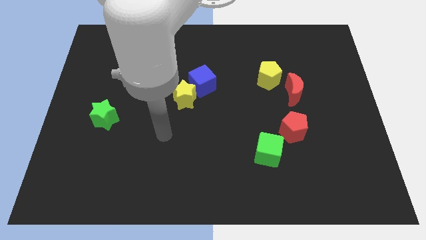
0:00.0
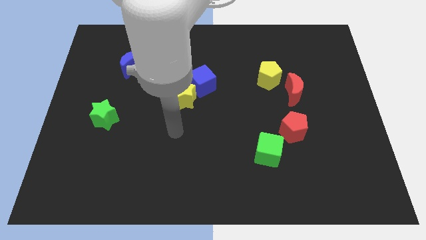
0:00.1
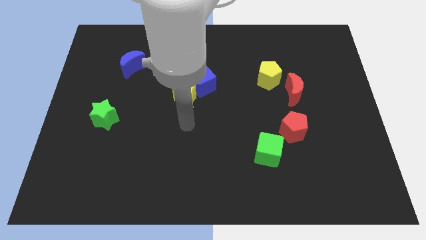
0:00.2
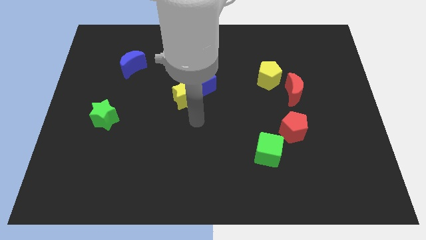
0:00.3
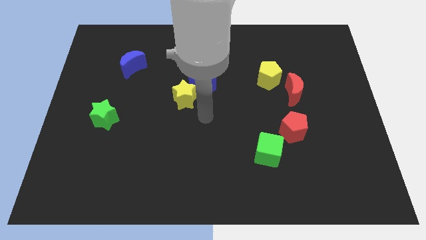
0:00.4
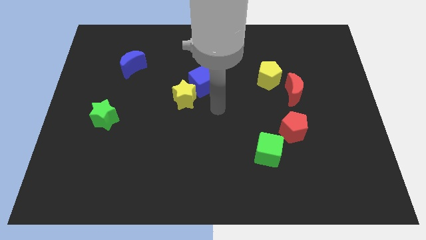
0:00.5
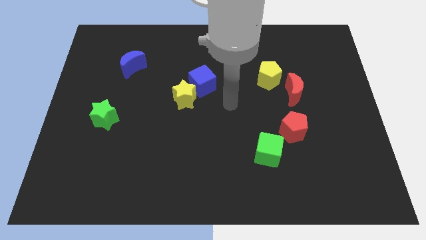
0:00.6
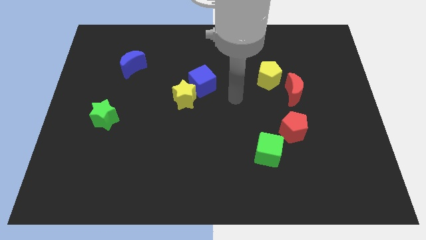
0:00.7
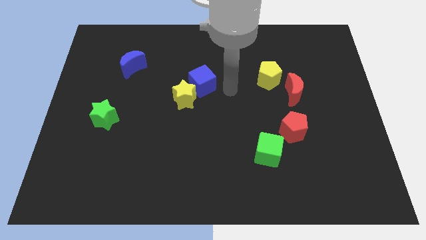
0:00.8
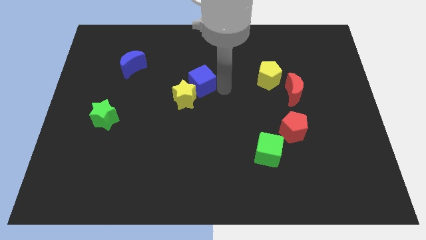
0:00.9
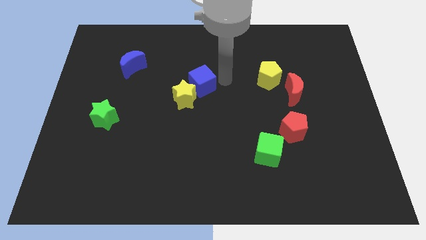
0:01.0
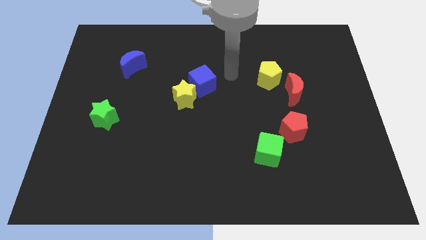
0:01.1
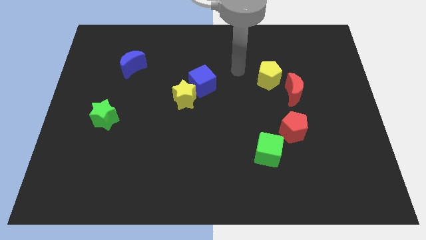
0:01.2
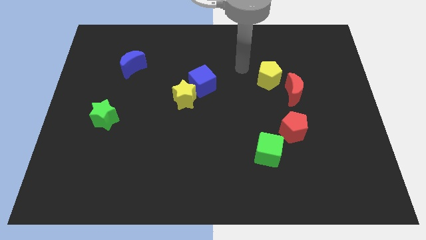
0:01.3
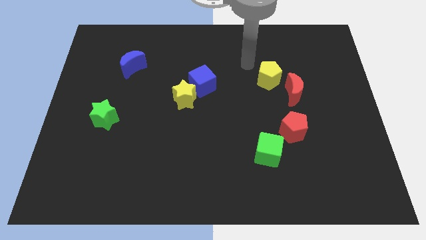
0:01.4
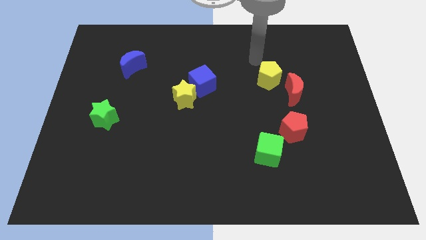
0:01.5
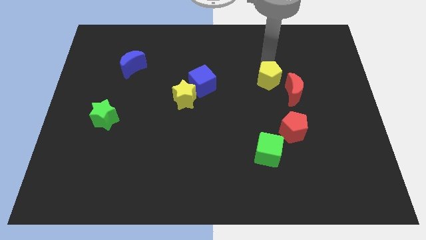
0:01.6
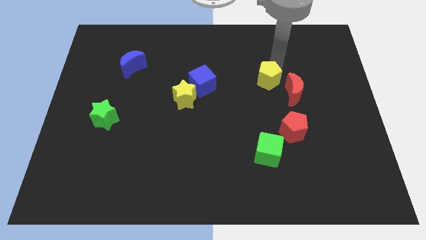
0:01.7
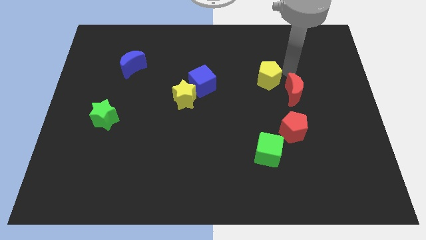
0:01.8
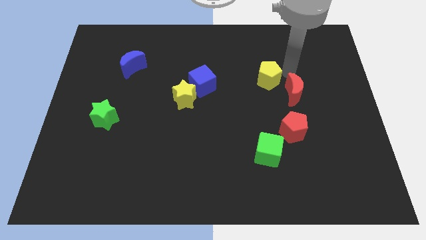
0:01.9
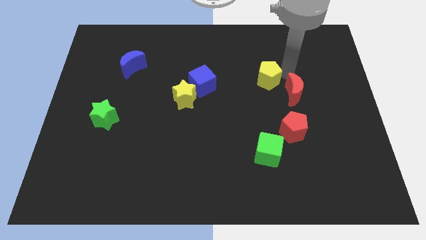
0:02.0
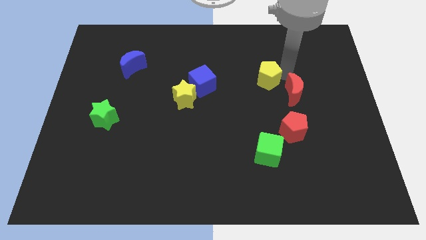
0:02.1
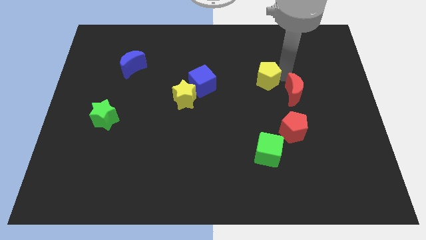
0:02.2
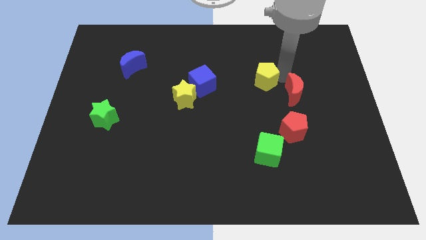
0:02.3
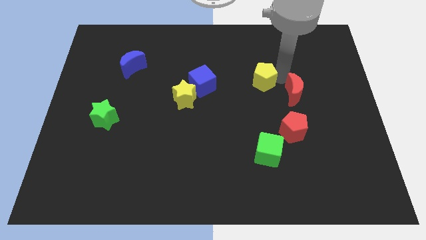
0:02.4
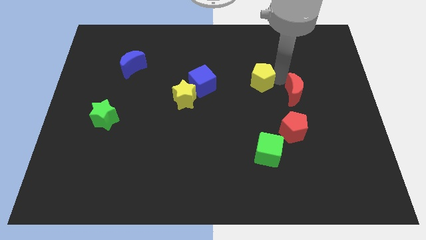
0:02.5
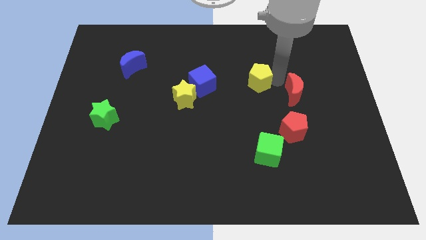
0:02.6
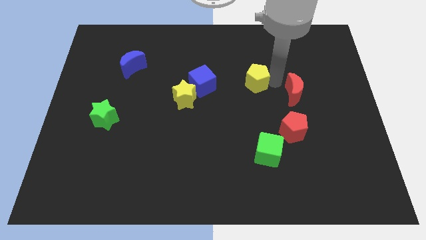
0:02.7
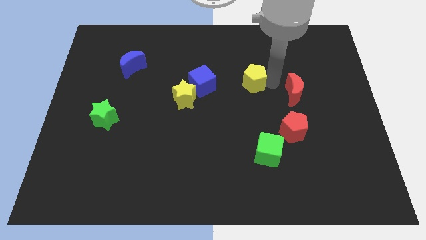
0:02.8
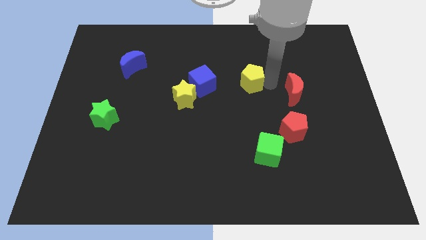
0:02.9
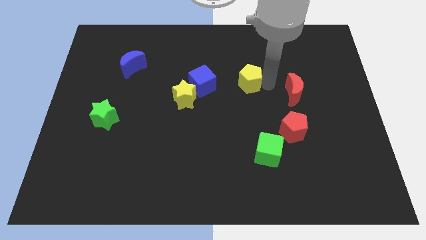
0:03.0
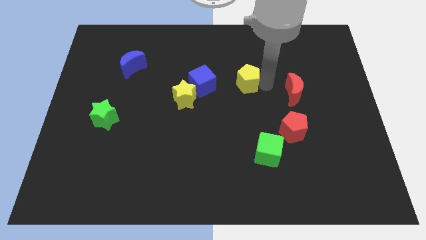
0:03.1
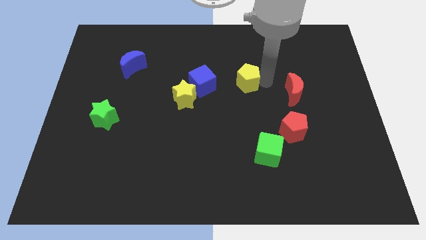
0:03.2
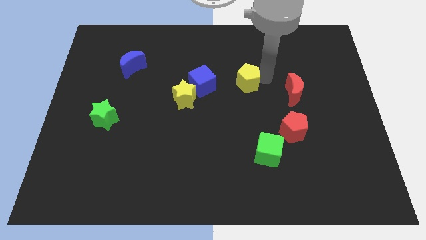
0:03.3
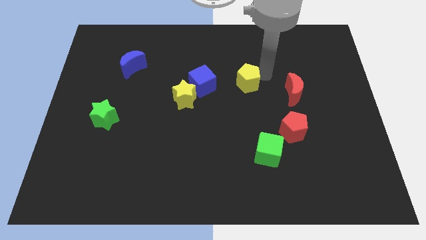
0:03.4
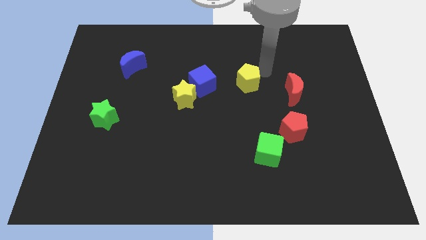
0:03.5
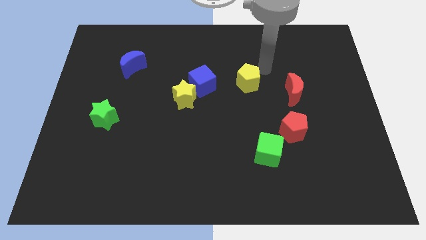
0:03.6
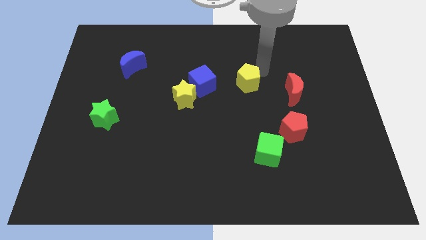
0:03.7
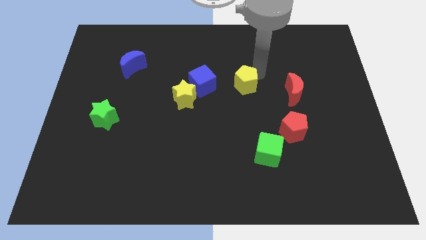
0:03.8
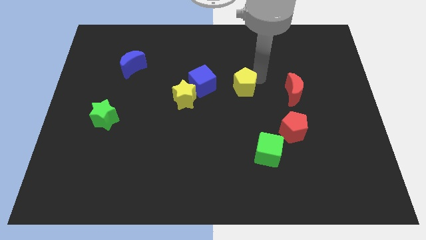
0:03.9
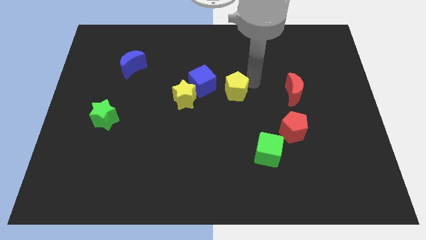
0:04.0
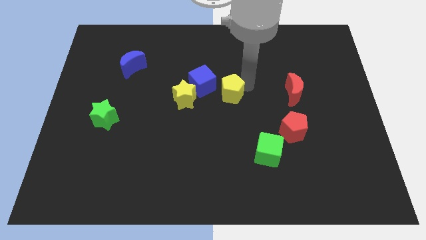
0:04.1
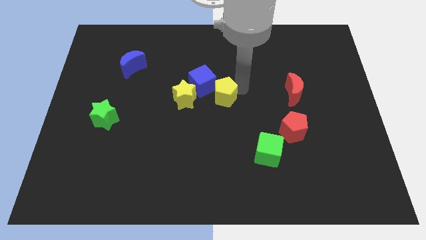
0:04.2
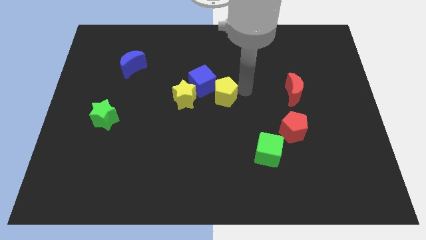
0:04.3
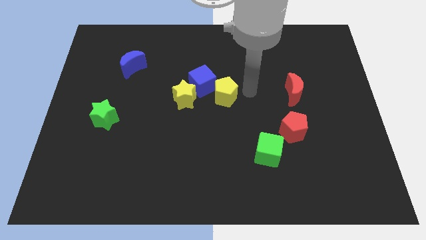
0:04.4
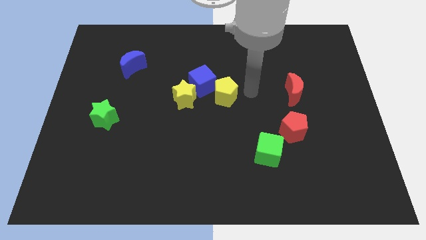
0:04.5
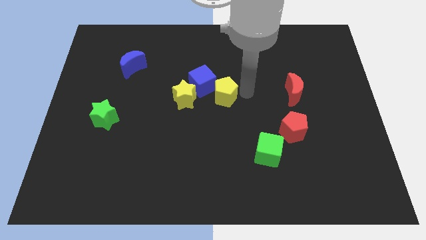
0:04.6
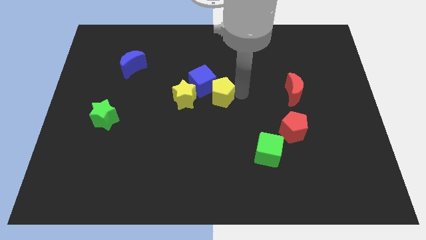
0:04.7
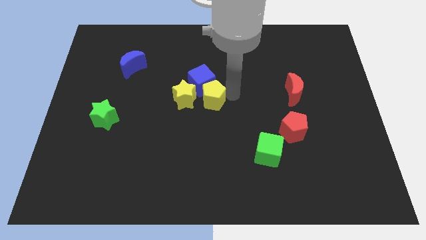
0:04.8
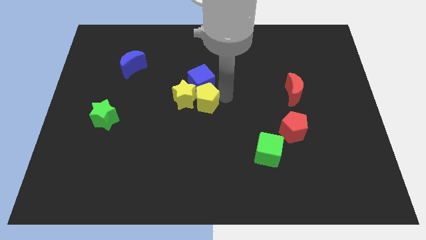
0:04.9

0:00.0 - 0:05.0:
push the yellow pentagon next to the yellow star

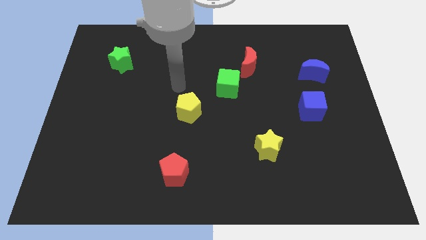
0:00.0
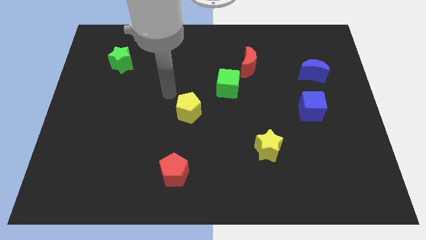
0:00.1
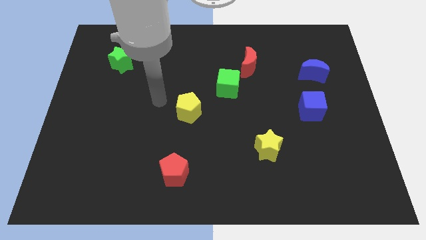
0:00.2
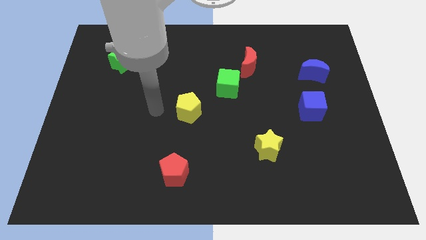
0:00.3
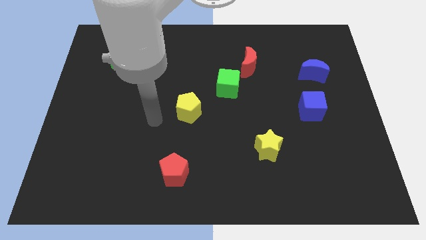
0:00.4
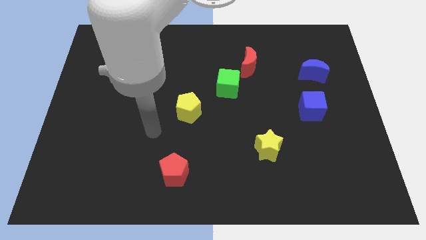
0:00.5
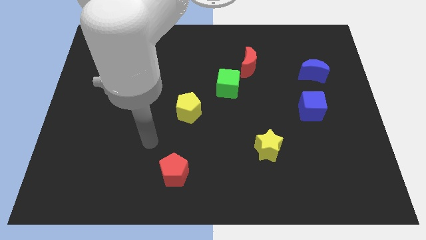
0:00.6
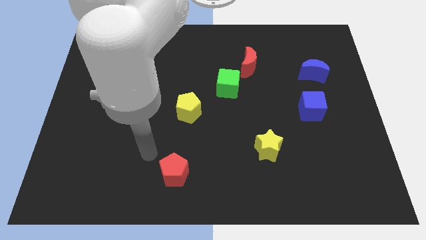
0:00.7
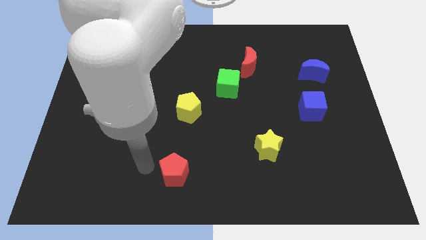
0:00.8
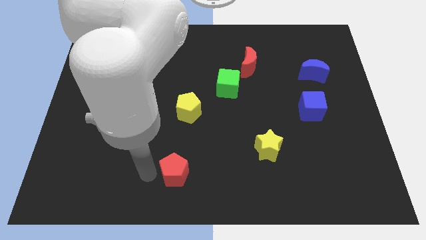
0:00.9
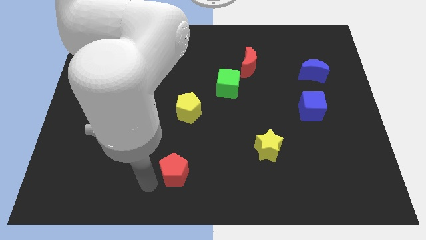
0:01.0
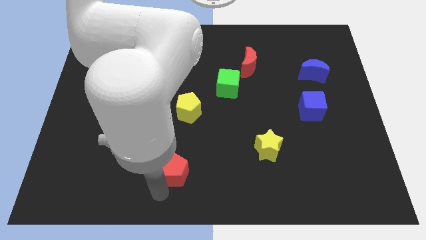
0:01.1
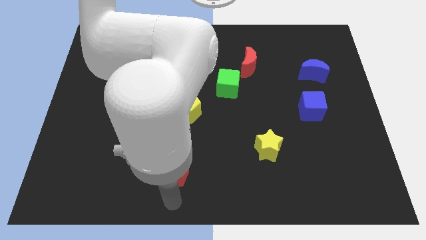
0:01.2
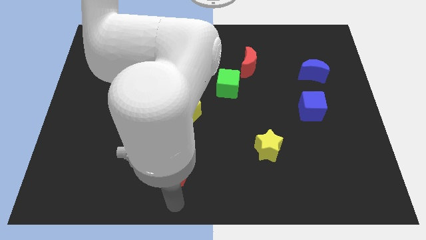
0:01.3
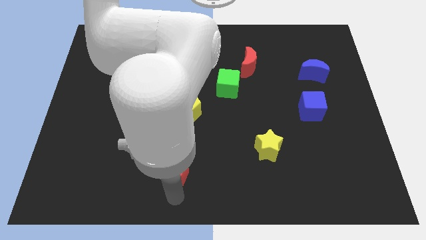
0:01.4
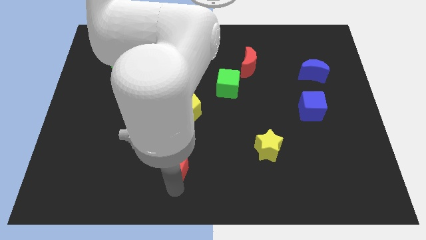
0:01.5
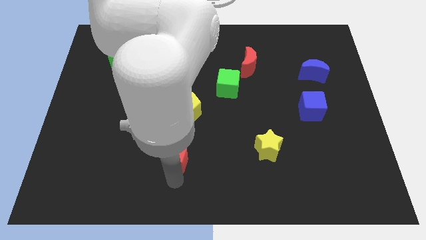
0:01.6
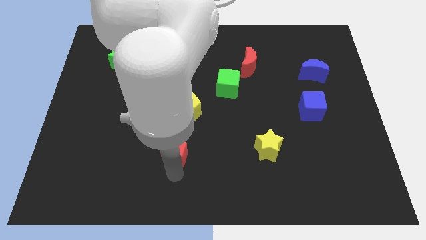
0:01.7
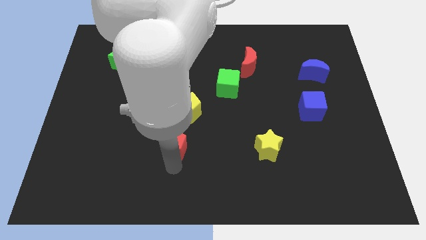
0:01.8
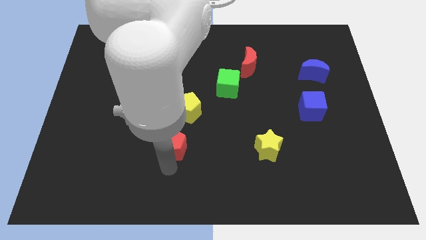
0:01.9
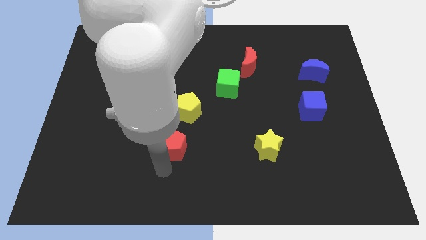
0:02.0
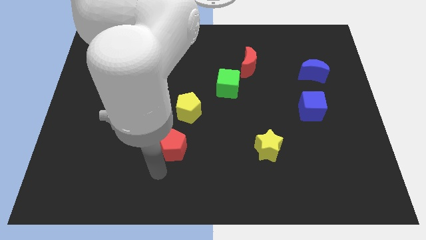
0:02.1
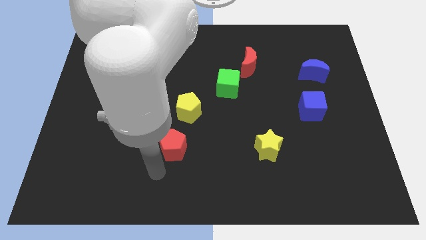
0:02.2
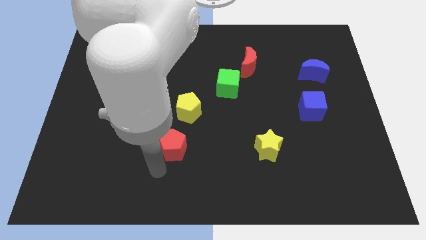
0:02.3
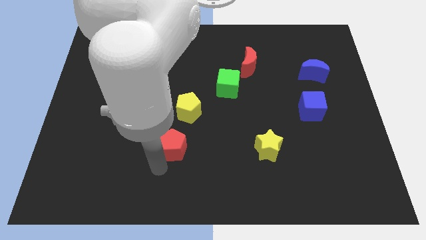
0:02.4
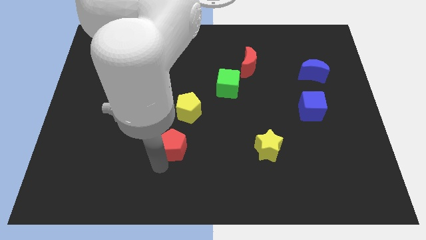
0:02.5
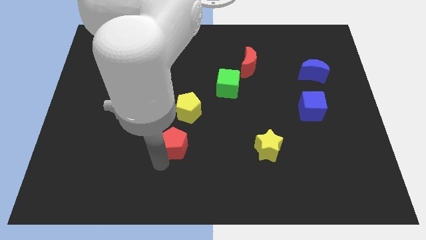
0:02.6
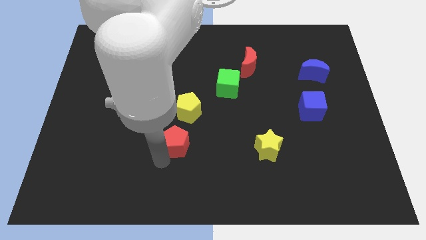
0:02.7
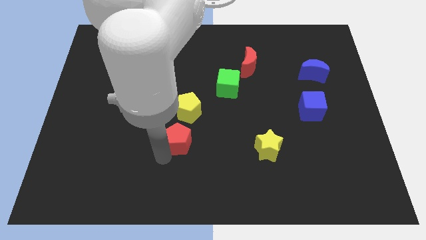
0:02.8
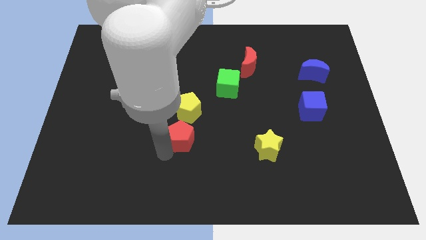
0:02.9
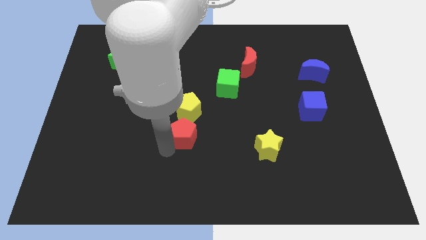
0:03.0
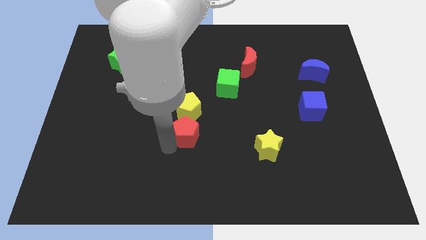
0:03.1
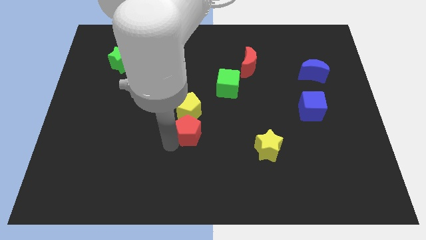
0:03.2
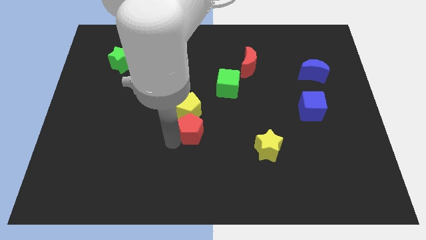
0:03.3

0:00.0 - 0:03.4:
put the red pentagon close to the yellow pentagon

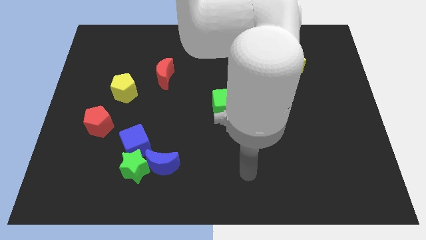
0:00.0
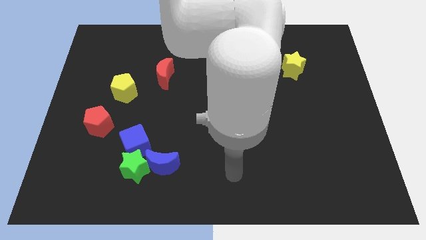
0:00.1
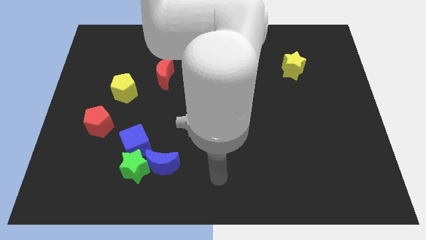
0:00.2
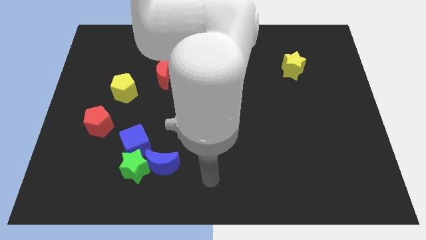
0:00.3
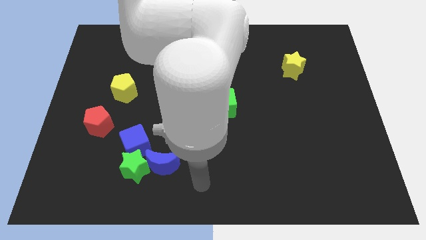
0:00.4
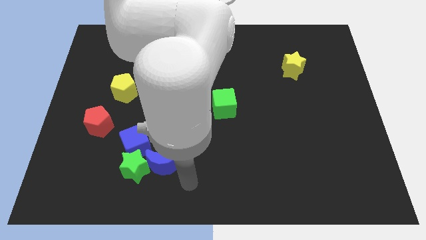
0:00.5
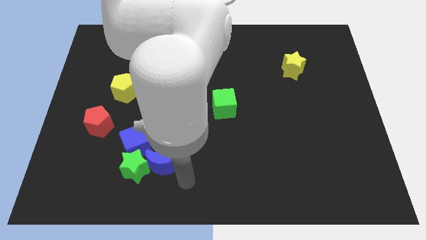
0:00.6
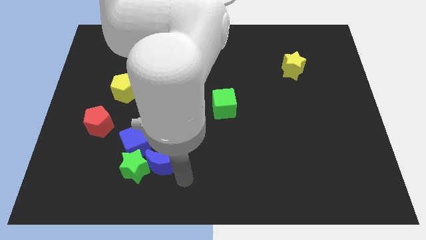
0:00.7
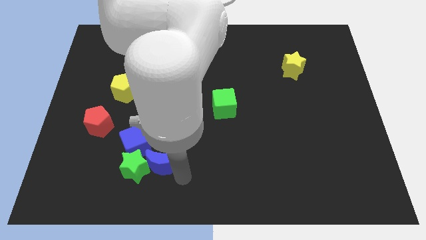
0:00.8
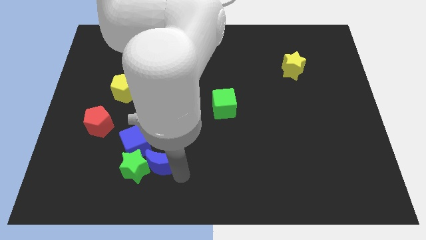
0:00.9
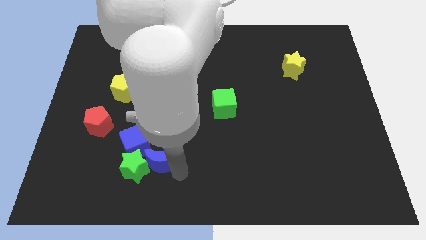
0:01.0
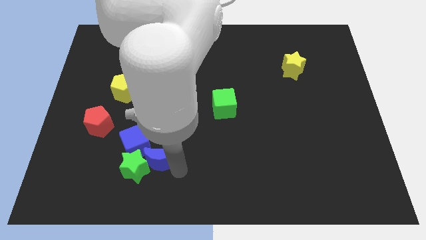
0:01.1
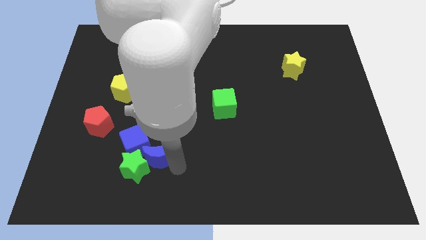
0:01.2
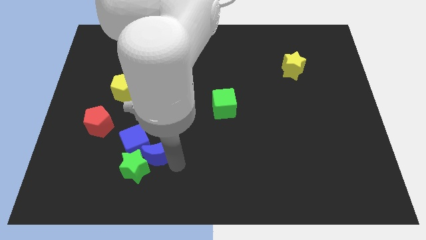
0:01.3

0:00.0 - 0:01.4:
put the blue moon towards the blue cube
